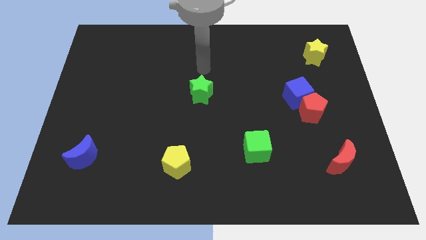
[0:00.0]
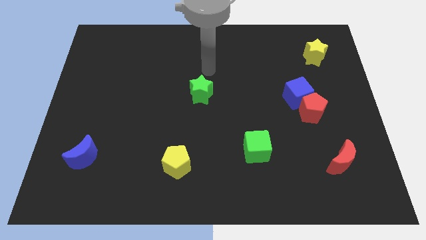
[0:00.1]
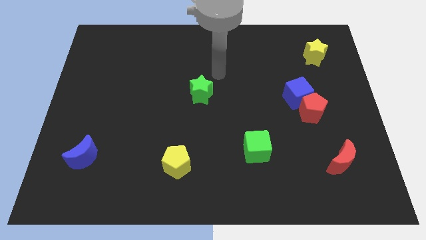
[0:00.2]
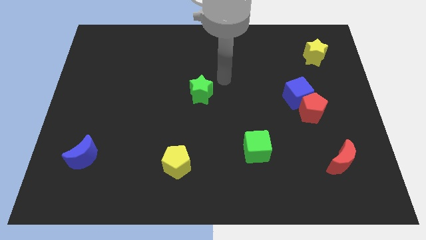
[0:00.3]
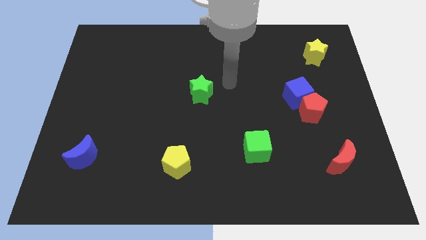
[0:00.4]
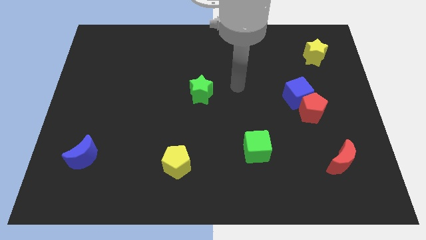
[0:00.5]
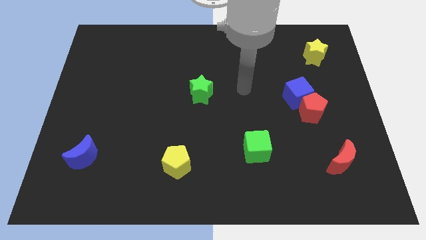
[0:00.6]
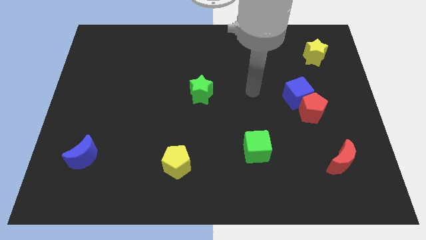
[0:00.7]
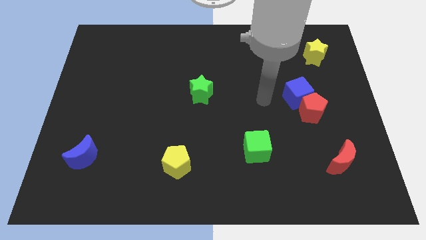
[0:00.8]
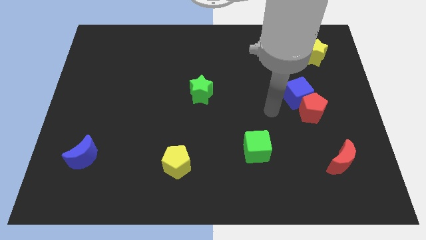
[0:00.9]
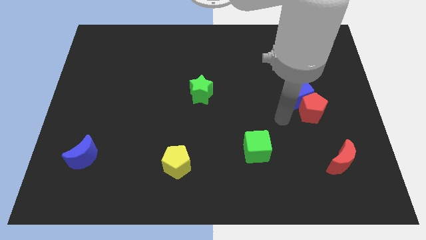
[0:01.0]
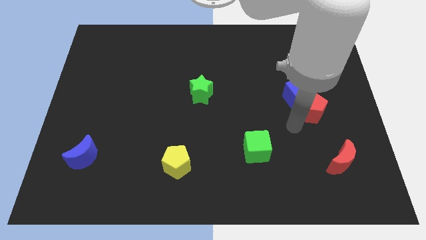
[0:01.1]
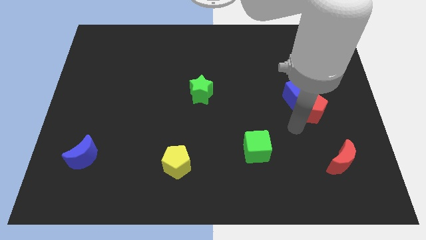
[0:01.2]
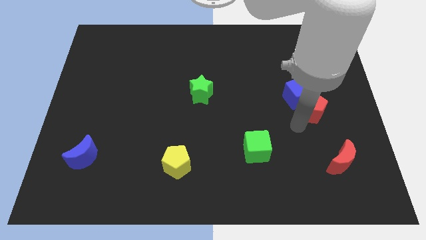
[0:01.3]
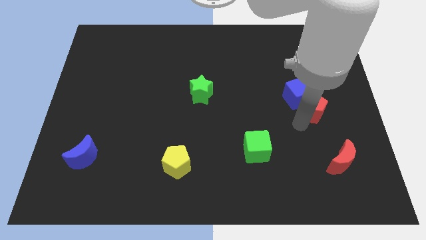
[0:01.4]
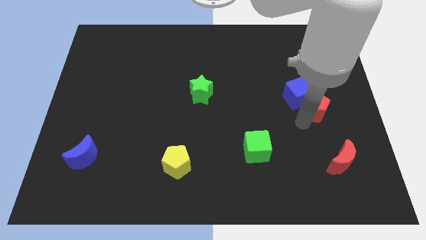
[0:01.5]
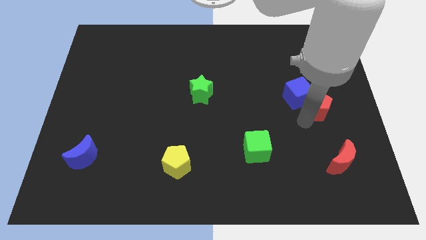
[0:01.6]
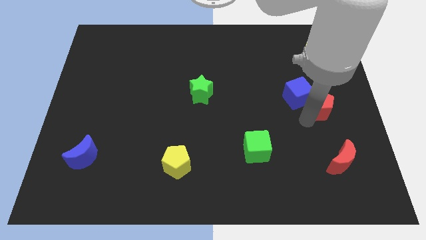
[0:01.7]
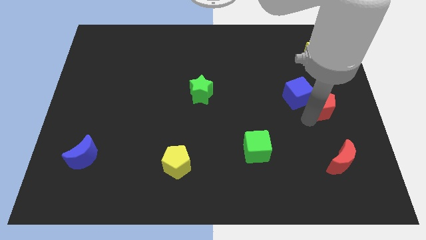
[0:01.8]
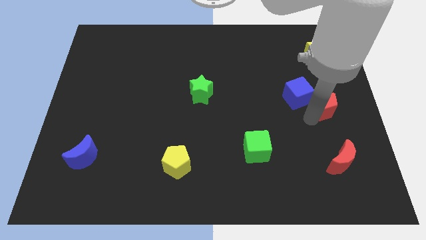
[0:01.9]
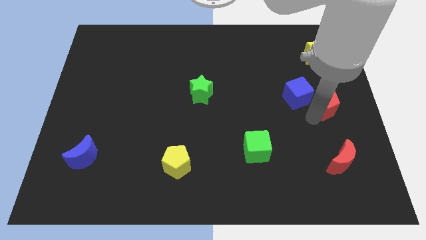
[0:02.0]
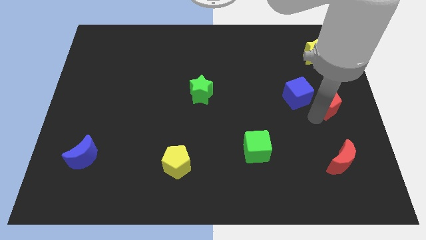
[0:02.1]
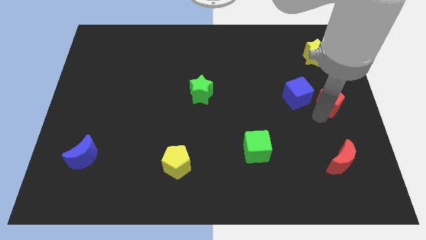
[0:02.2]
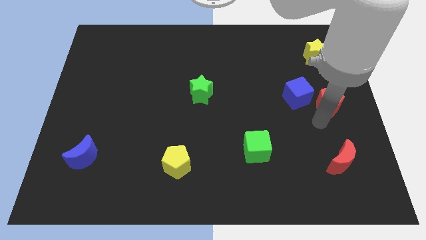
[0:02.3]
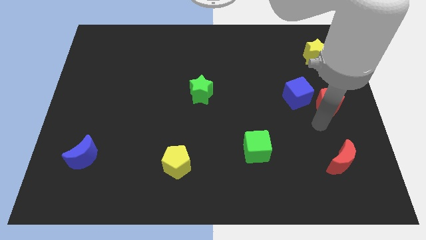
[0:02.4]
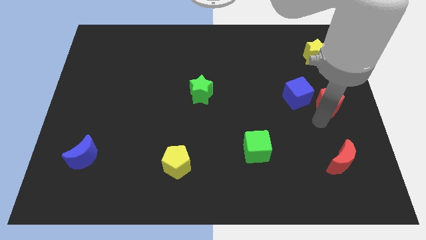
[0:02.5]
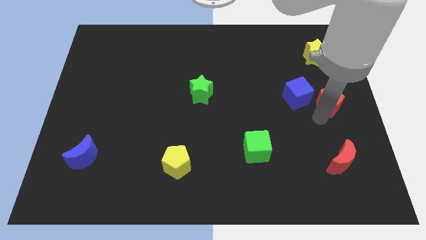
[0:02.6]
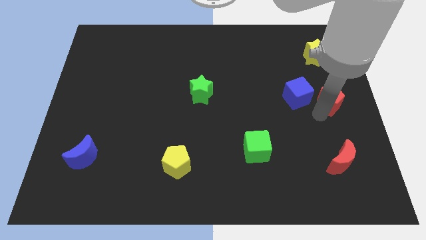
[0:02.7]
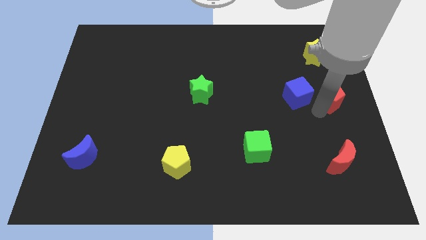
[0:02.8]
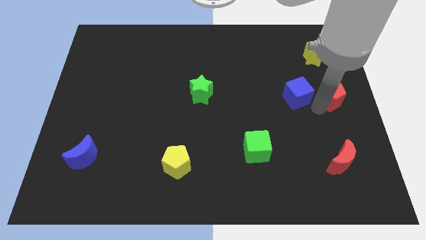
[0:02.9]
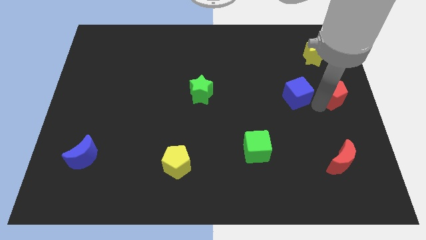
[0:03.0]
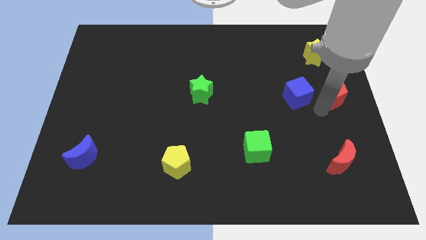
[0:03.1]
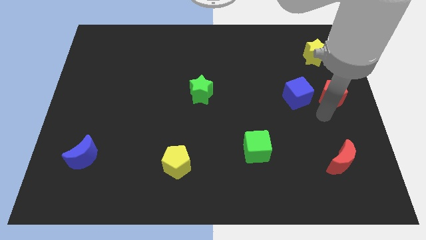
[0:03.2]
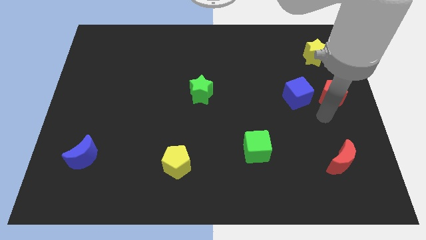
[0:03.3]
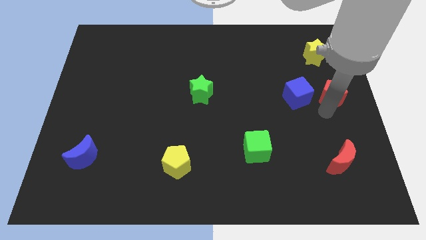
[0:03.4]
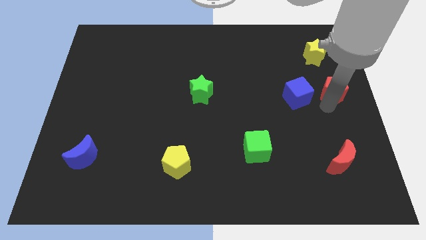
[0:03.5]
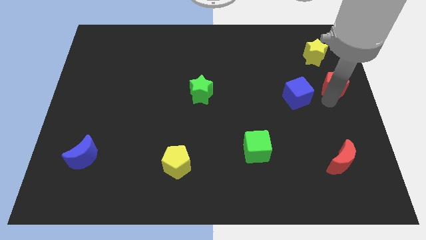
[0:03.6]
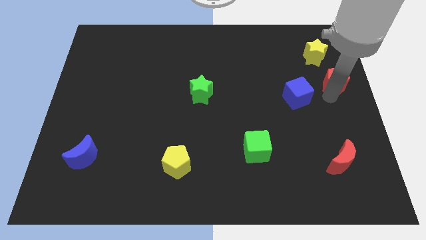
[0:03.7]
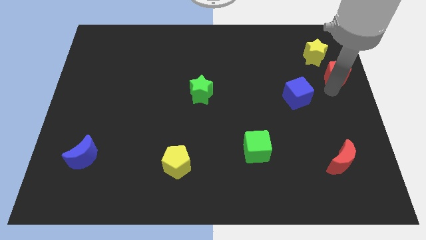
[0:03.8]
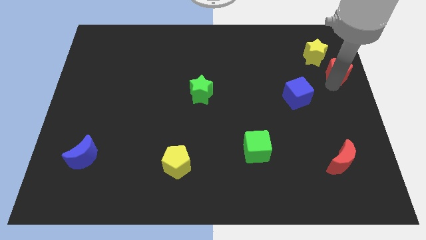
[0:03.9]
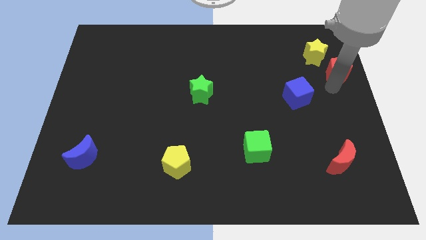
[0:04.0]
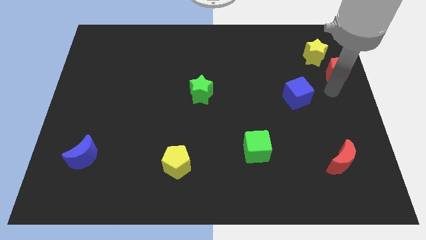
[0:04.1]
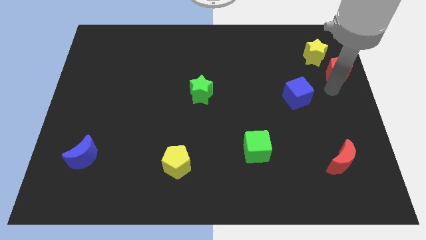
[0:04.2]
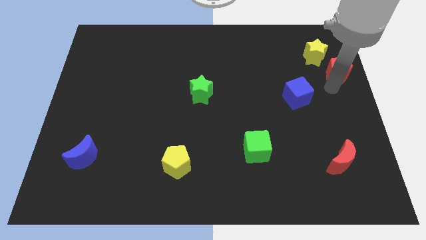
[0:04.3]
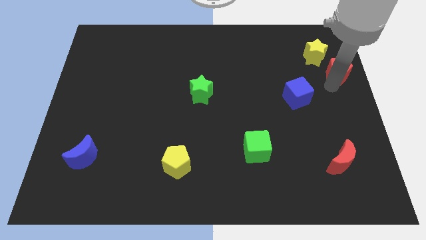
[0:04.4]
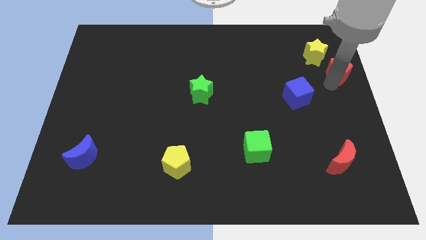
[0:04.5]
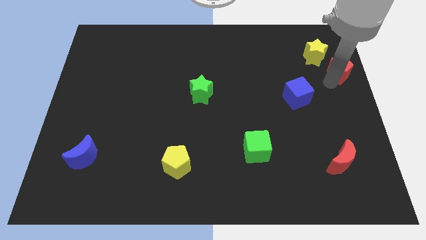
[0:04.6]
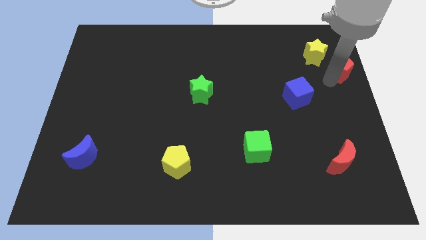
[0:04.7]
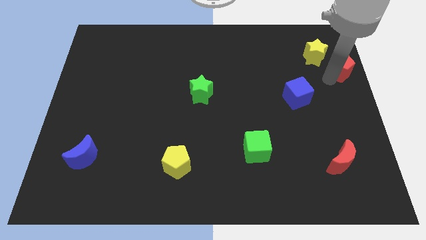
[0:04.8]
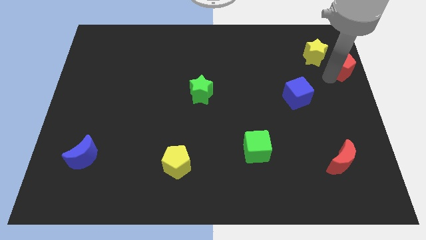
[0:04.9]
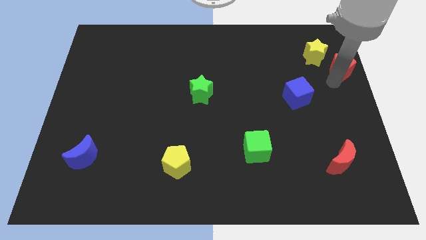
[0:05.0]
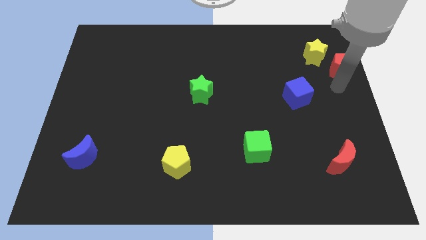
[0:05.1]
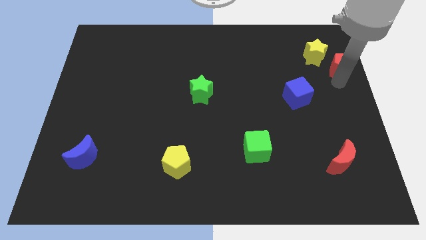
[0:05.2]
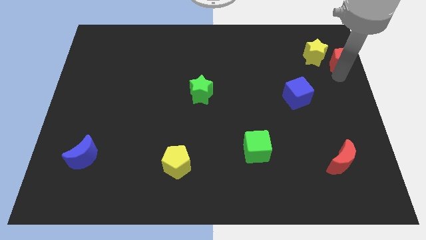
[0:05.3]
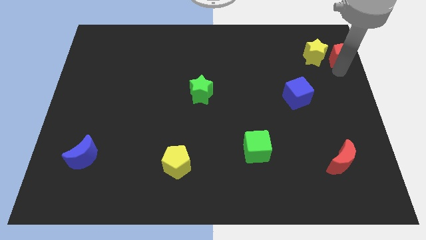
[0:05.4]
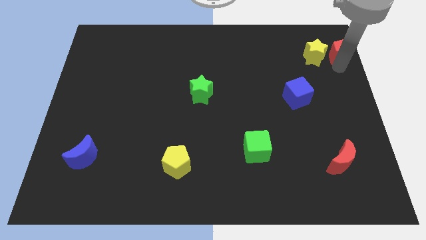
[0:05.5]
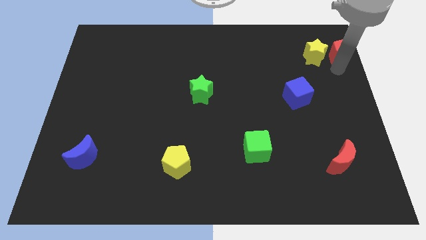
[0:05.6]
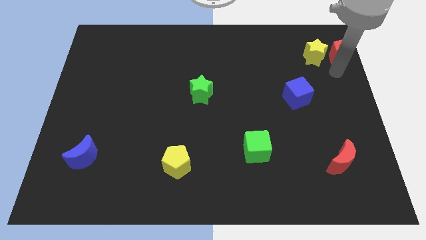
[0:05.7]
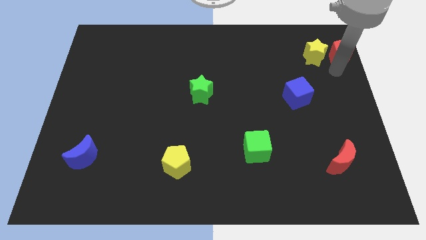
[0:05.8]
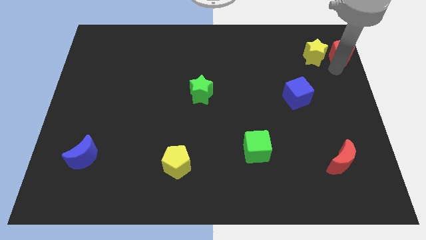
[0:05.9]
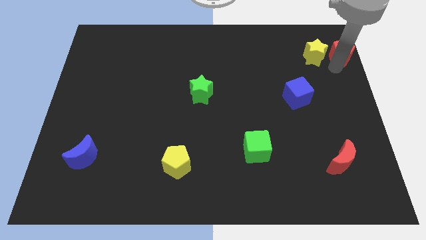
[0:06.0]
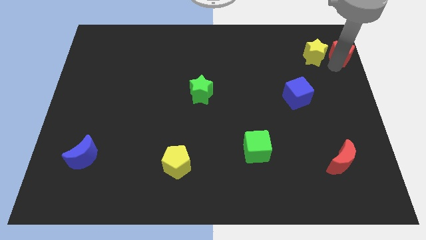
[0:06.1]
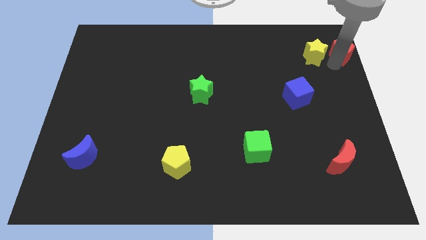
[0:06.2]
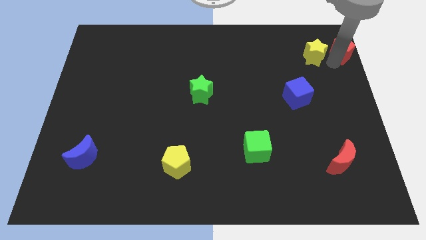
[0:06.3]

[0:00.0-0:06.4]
push the red pentagon to the top right of the board

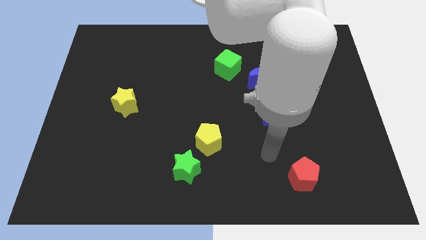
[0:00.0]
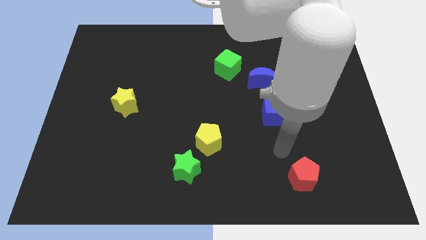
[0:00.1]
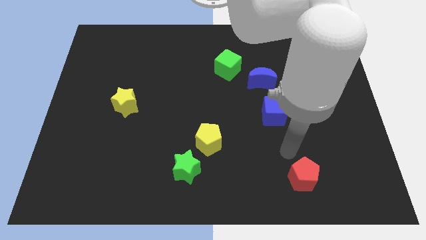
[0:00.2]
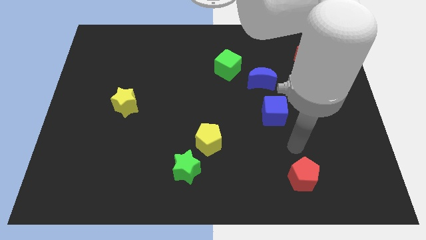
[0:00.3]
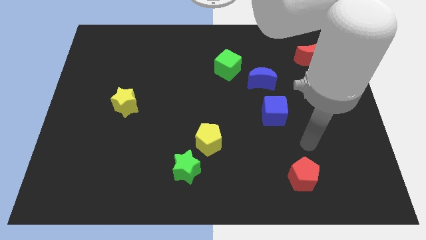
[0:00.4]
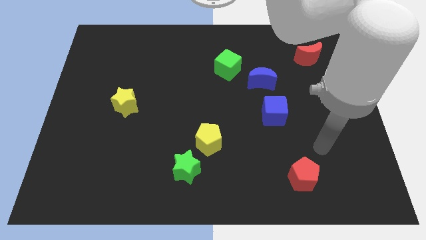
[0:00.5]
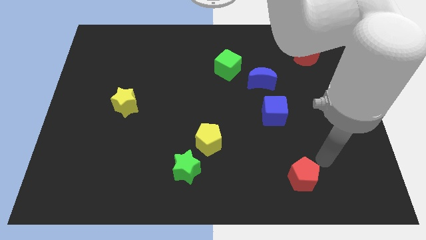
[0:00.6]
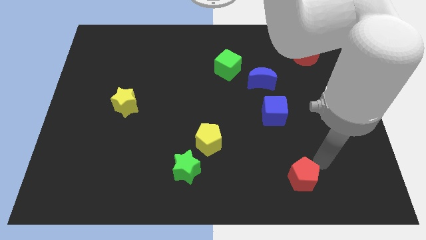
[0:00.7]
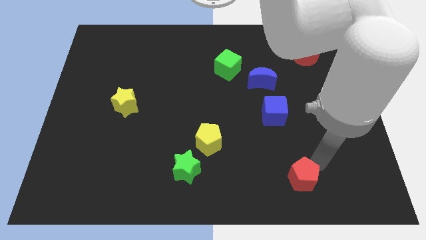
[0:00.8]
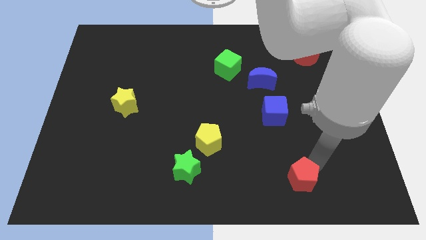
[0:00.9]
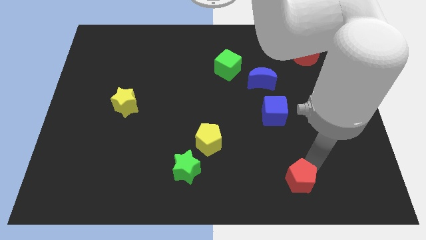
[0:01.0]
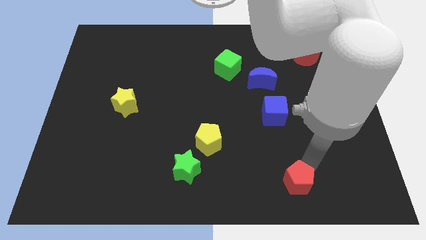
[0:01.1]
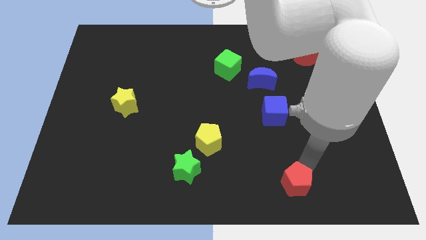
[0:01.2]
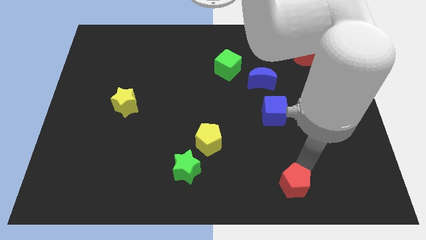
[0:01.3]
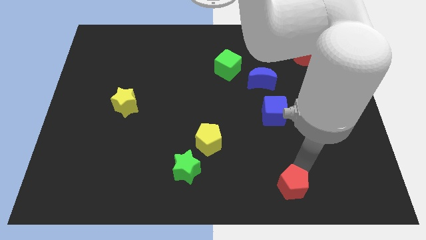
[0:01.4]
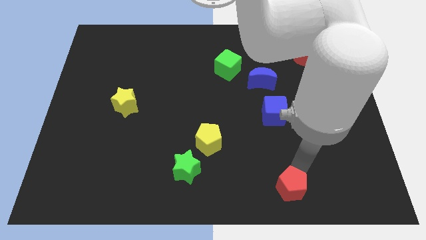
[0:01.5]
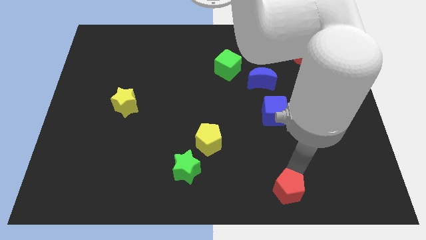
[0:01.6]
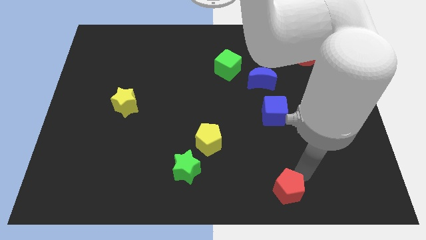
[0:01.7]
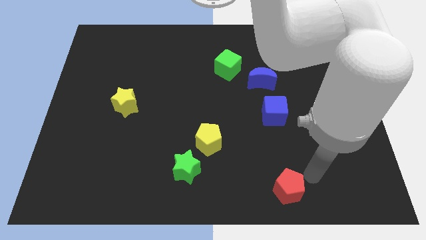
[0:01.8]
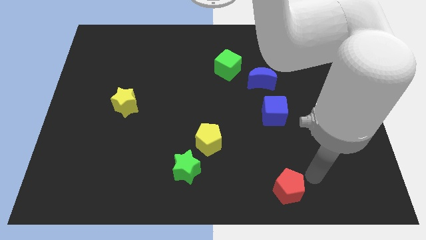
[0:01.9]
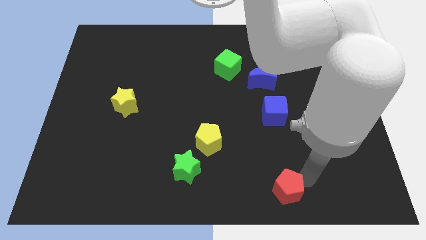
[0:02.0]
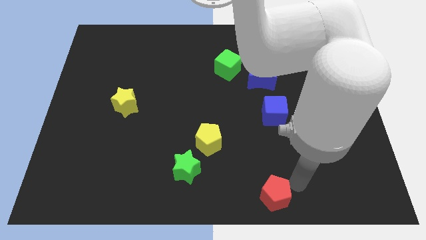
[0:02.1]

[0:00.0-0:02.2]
push the red pentagon to the bottom side
